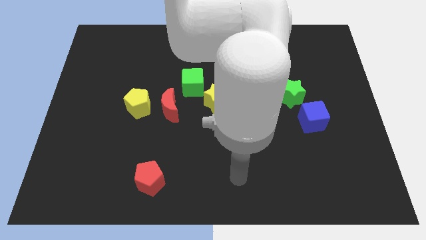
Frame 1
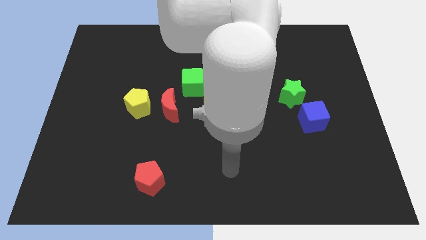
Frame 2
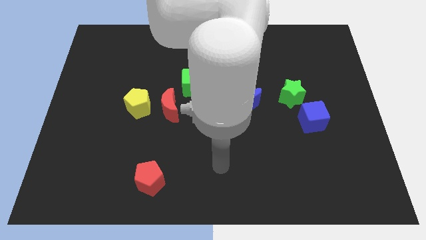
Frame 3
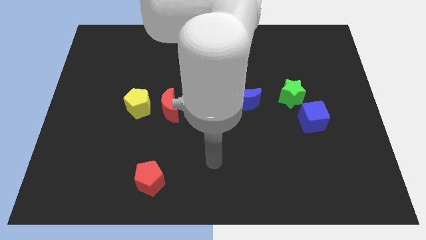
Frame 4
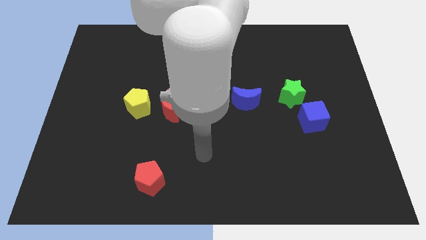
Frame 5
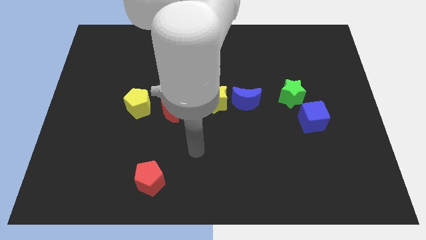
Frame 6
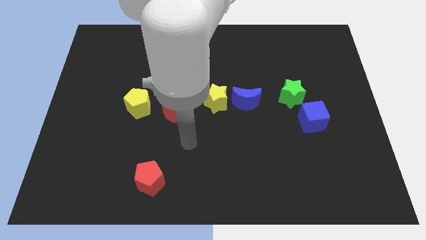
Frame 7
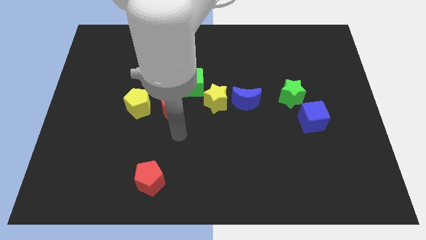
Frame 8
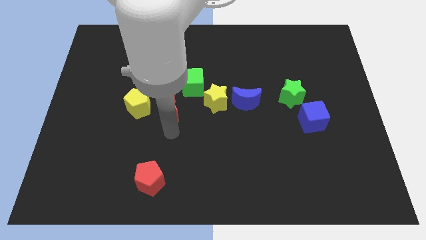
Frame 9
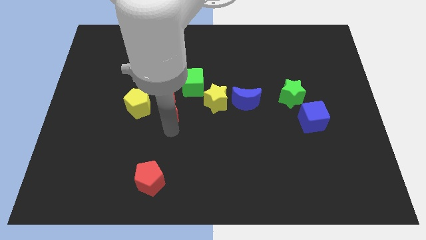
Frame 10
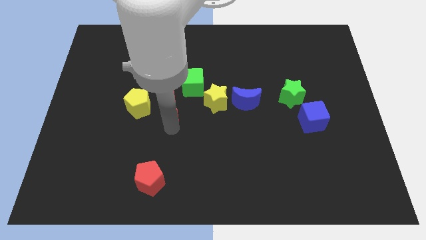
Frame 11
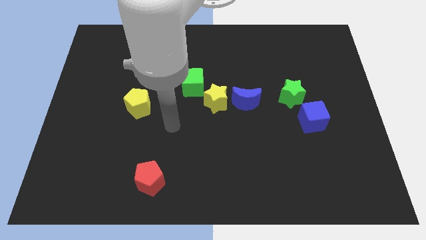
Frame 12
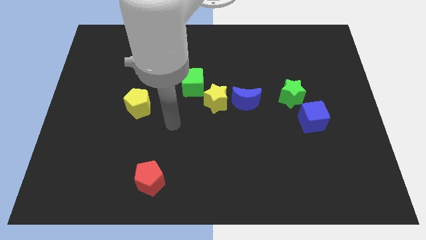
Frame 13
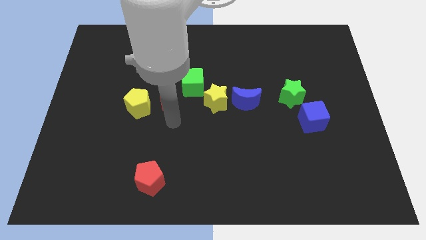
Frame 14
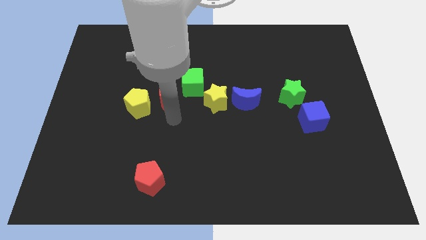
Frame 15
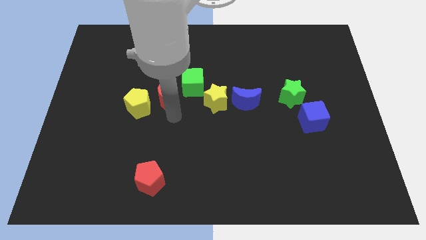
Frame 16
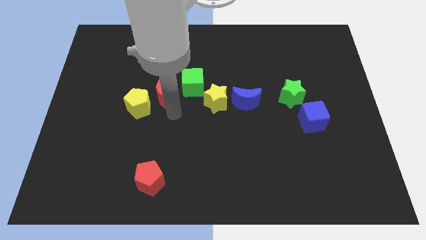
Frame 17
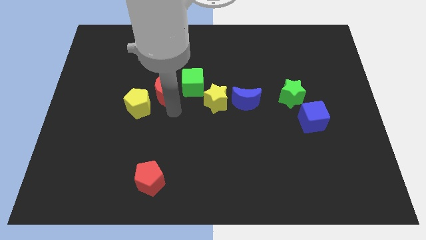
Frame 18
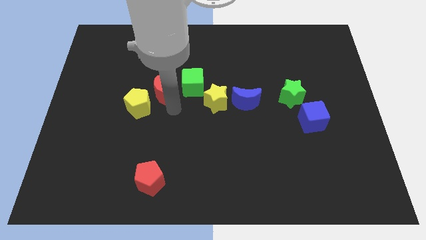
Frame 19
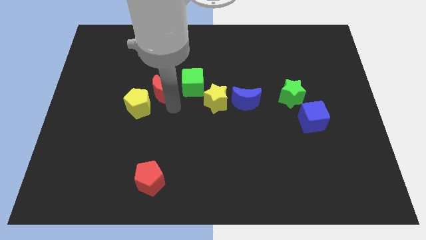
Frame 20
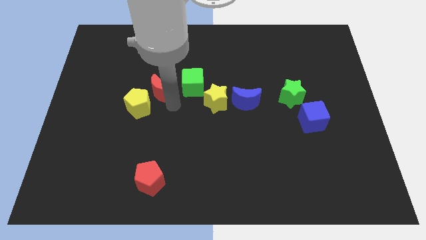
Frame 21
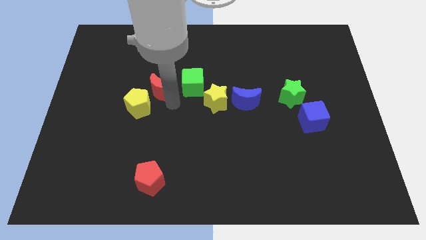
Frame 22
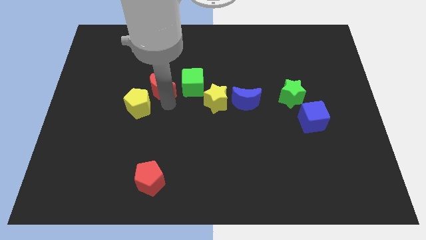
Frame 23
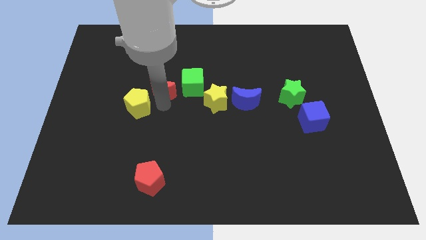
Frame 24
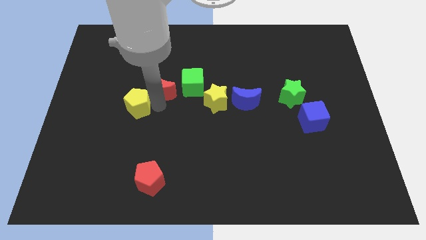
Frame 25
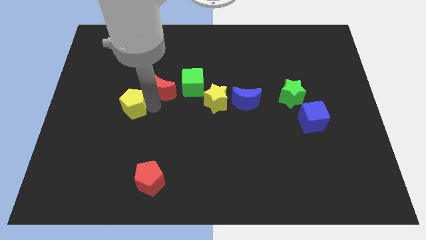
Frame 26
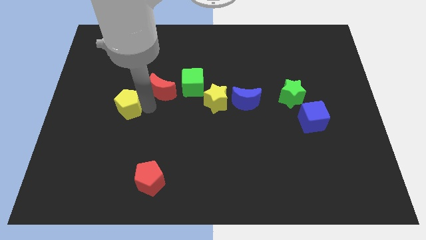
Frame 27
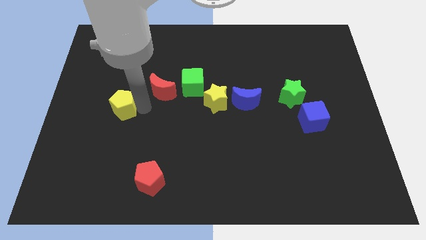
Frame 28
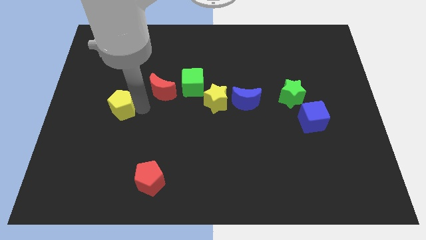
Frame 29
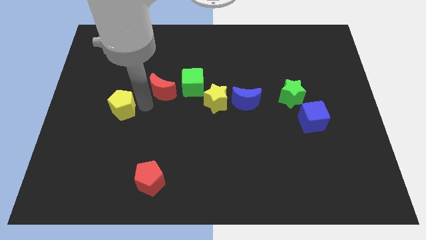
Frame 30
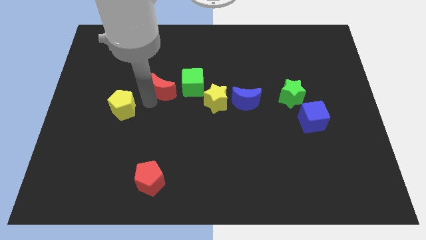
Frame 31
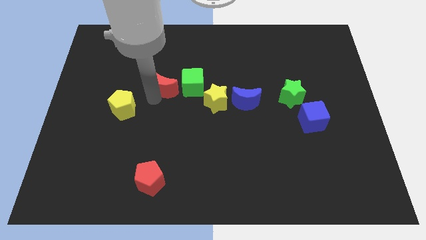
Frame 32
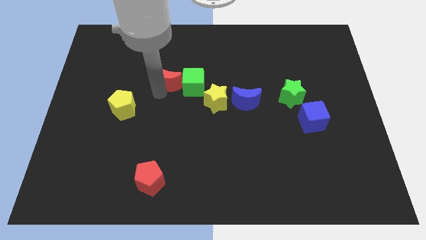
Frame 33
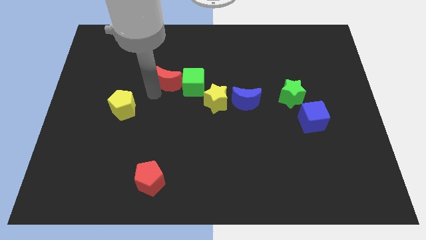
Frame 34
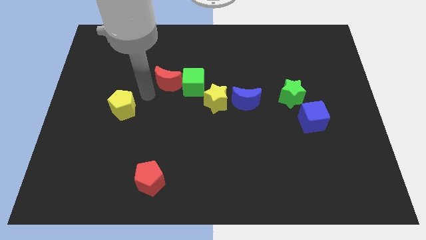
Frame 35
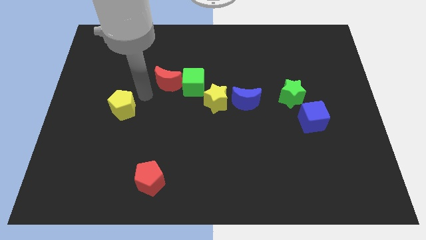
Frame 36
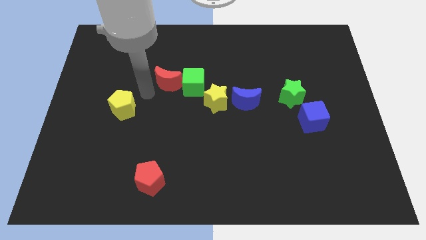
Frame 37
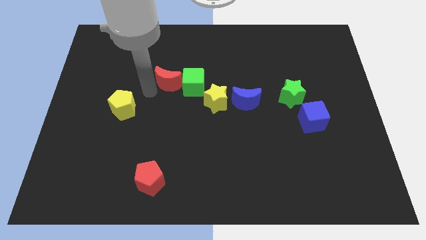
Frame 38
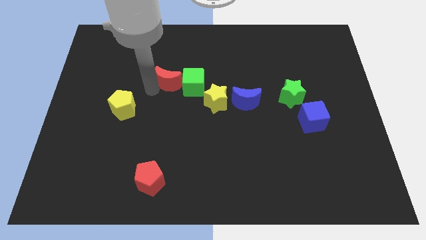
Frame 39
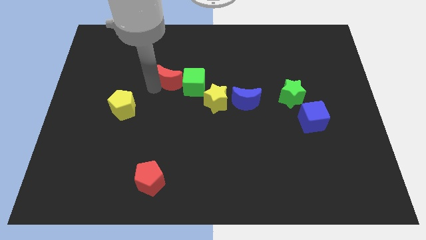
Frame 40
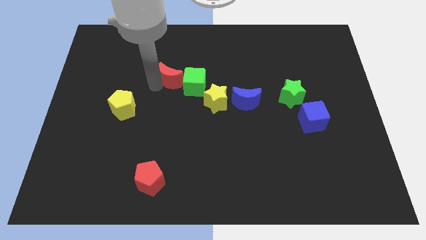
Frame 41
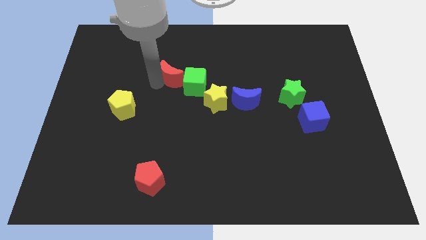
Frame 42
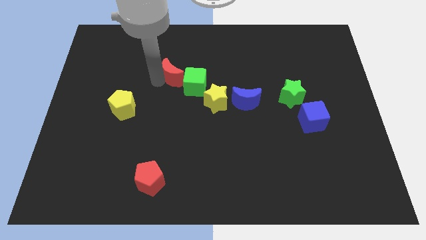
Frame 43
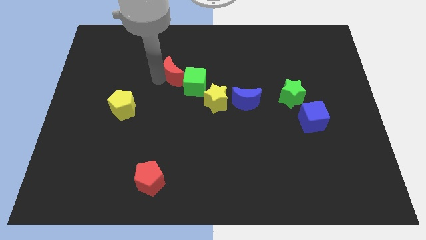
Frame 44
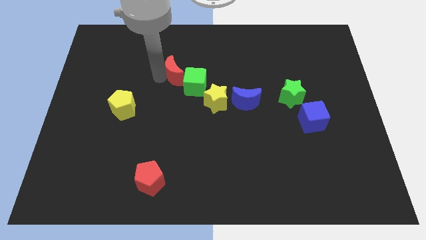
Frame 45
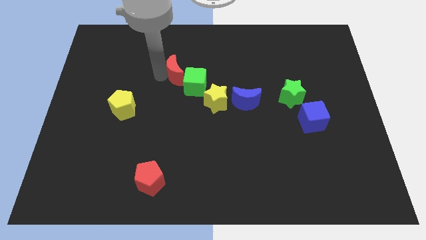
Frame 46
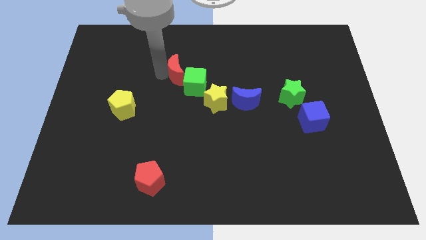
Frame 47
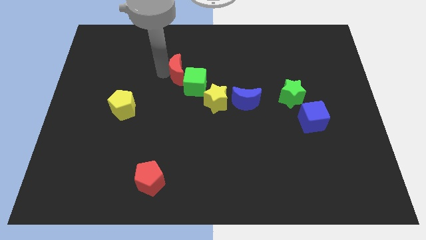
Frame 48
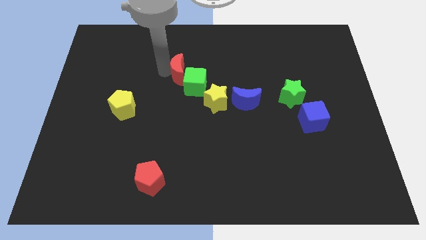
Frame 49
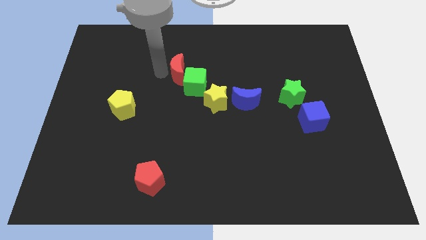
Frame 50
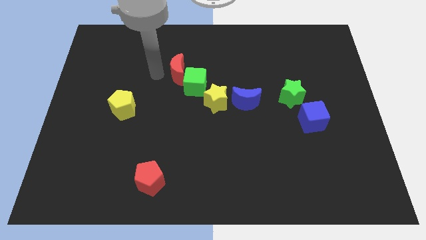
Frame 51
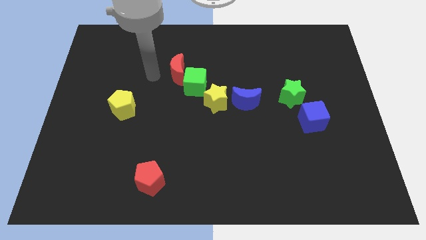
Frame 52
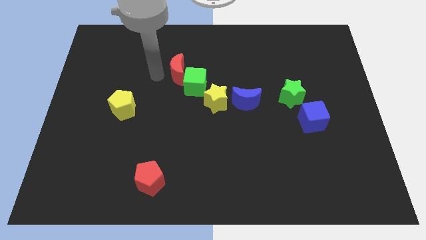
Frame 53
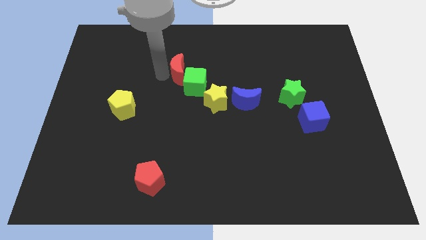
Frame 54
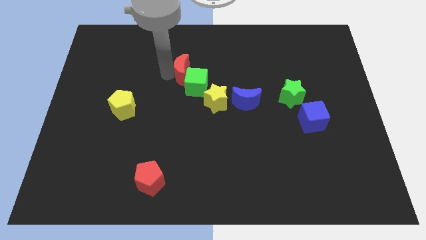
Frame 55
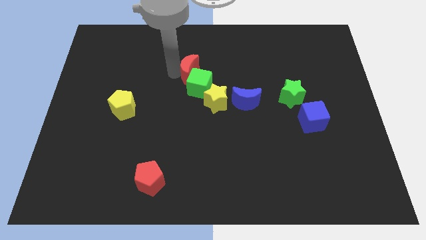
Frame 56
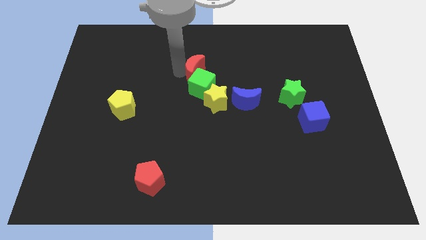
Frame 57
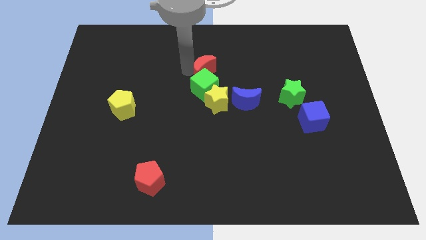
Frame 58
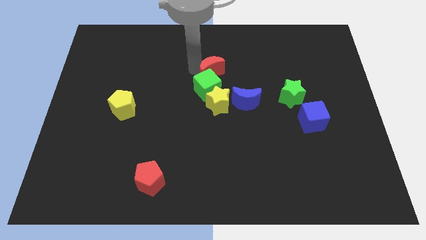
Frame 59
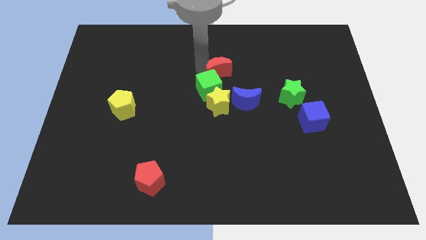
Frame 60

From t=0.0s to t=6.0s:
slide the red moon diagonally up and to the left of the blue moon

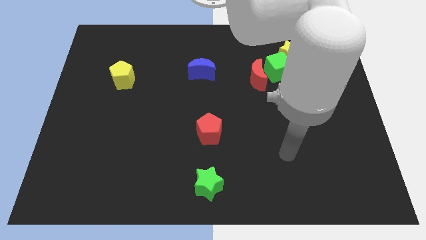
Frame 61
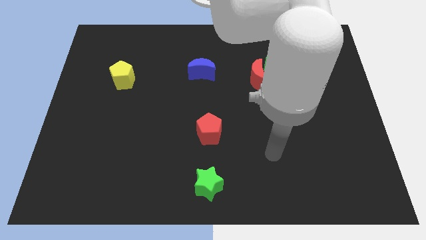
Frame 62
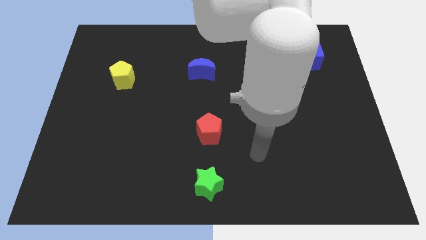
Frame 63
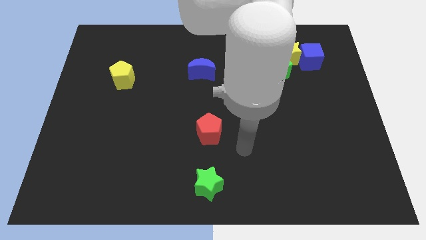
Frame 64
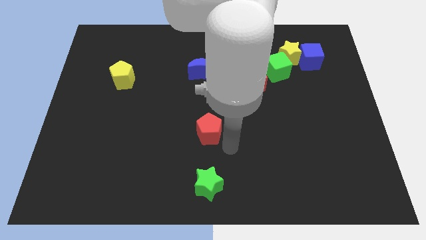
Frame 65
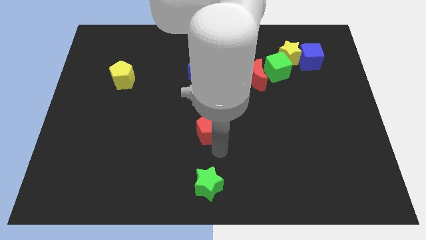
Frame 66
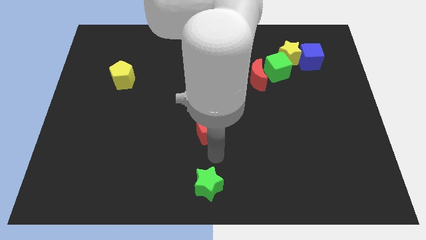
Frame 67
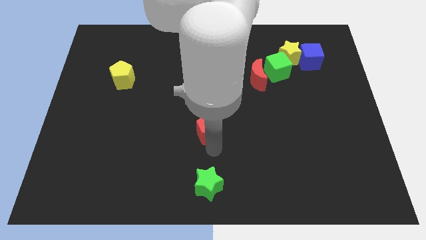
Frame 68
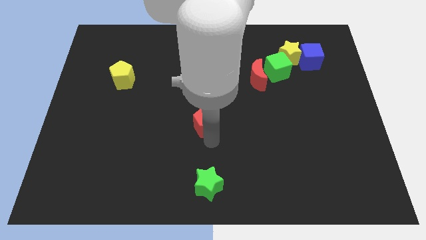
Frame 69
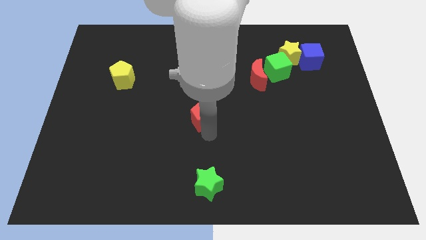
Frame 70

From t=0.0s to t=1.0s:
slide the red pentagon below the blue moon
